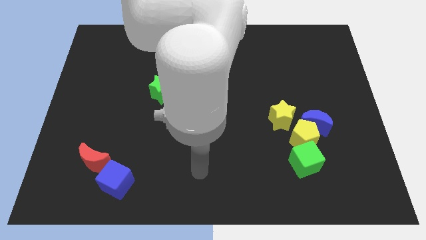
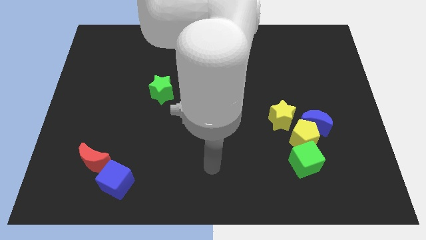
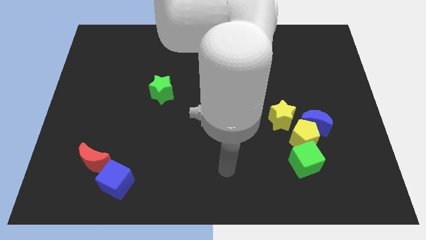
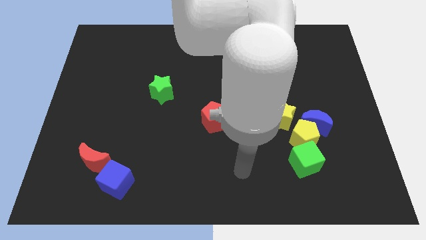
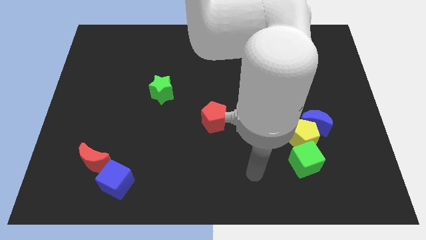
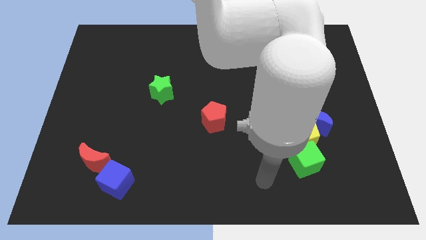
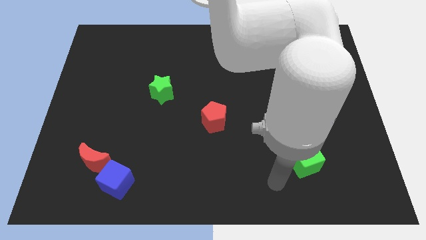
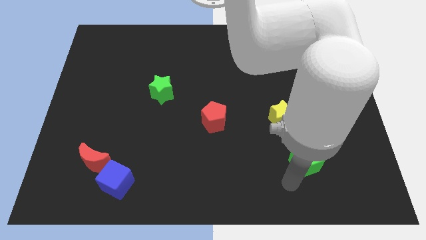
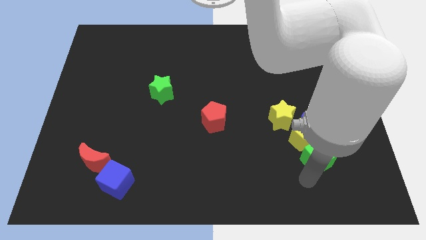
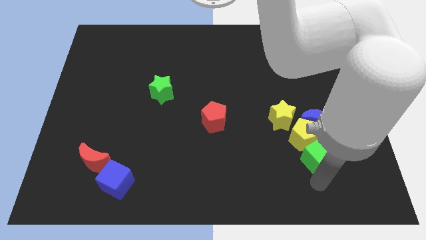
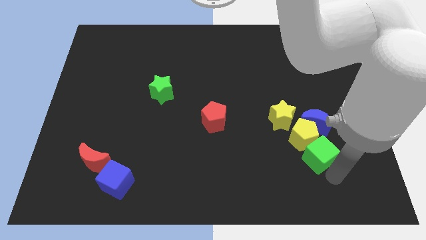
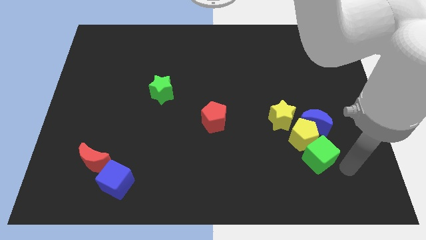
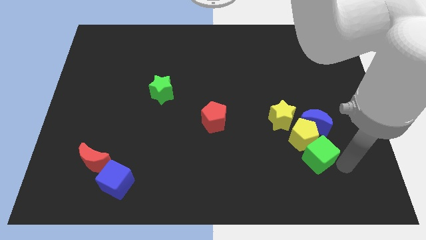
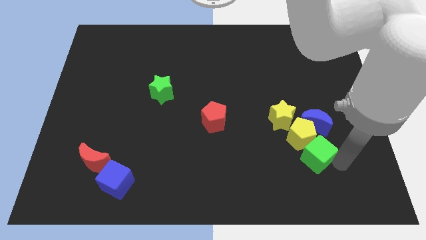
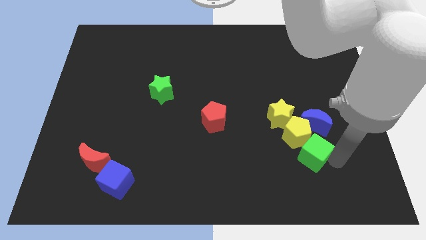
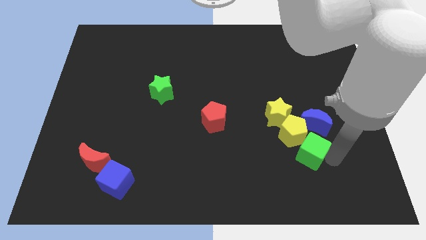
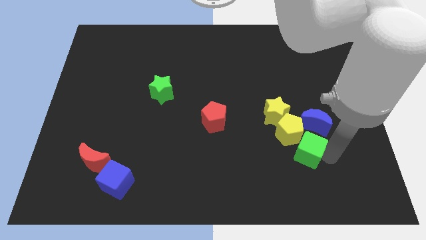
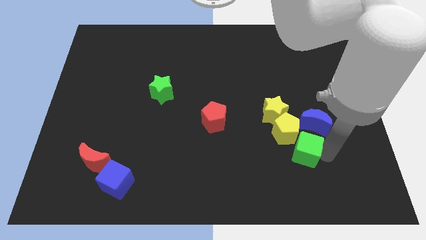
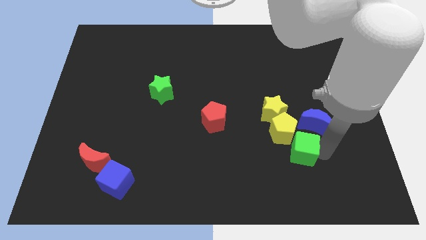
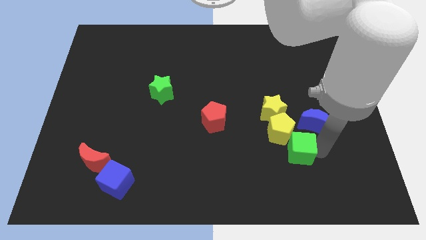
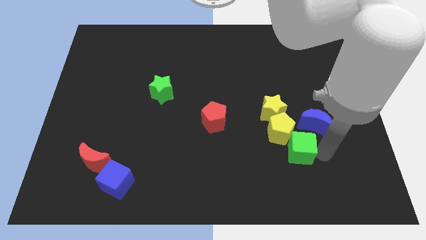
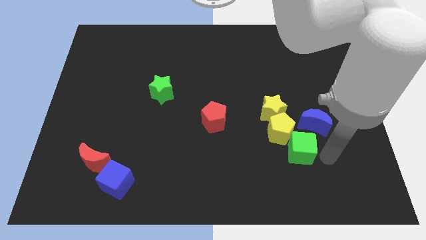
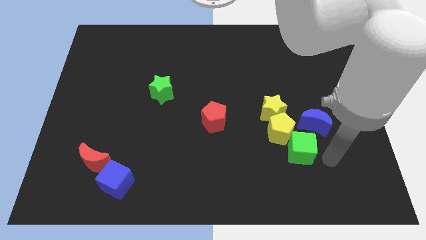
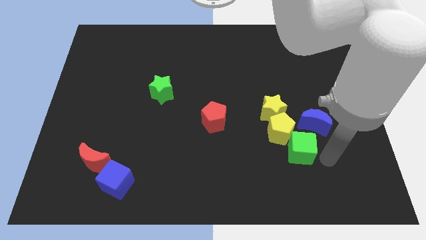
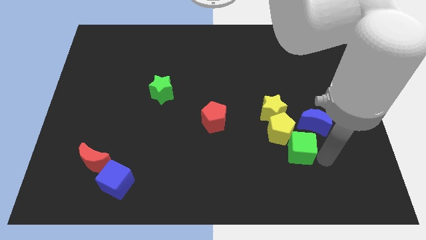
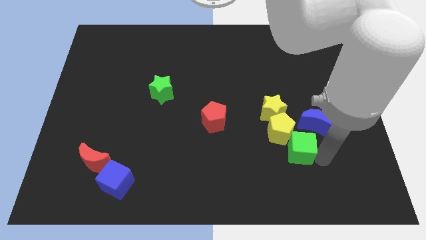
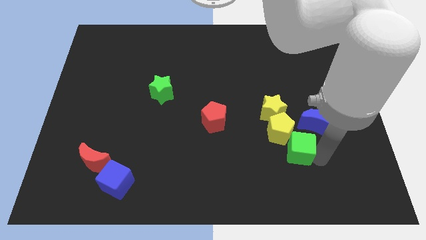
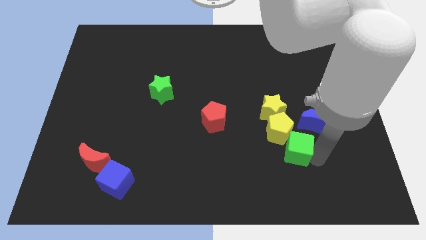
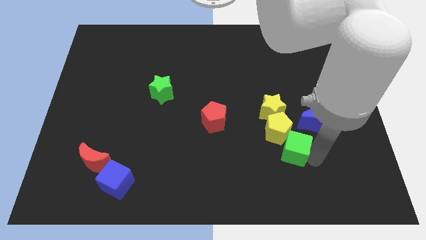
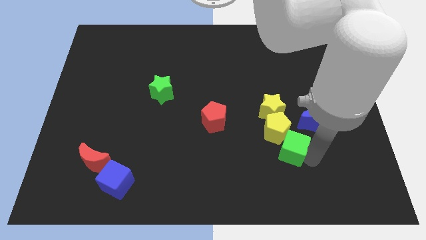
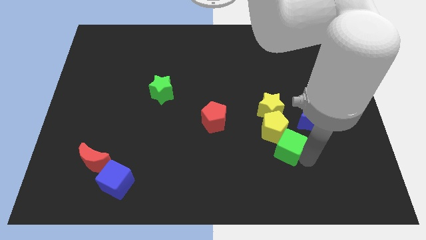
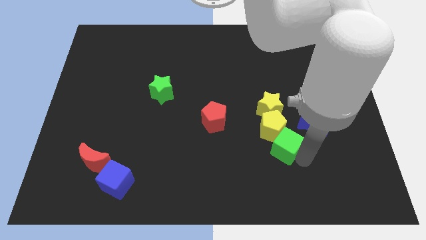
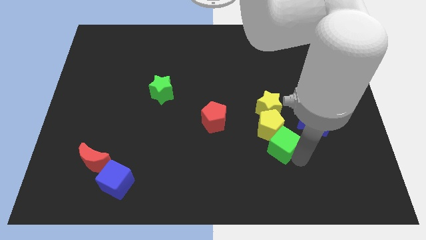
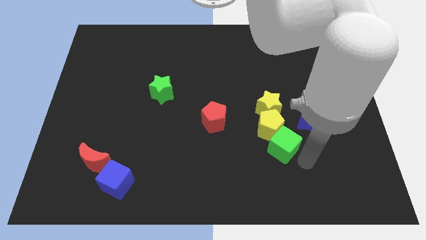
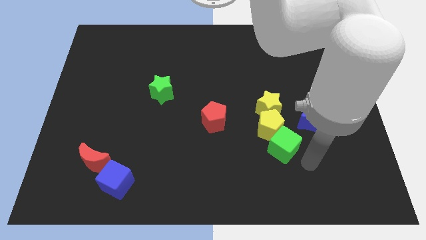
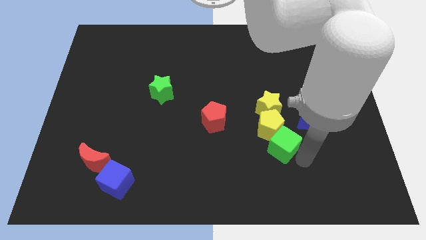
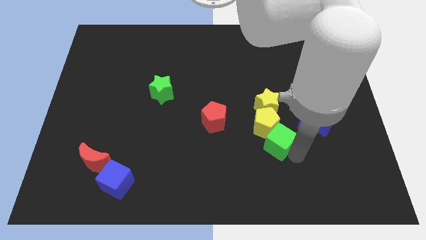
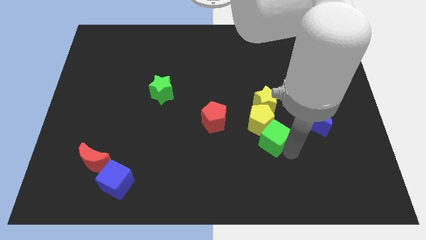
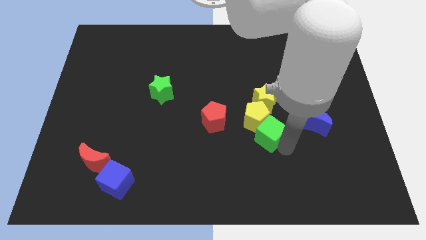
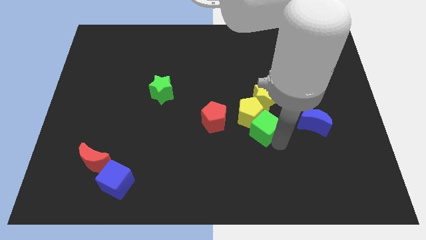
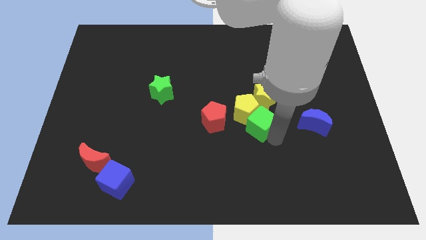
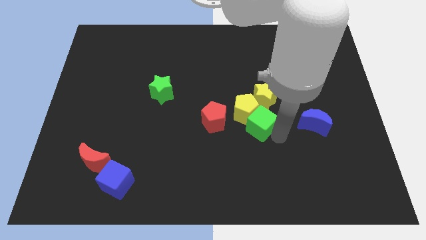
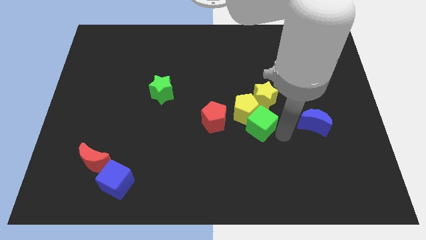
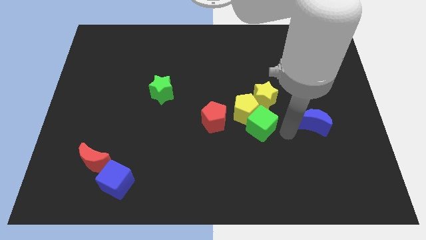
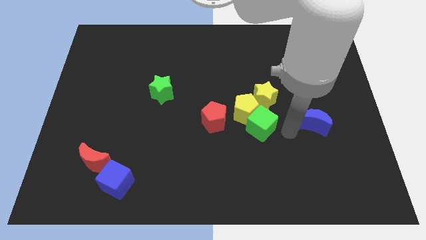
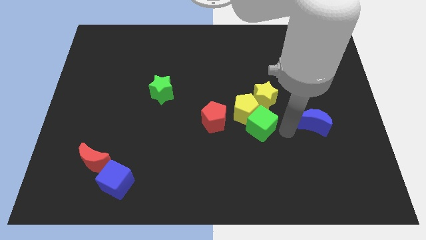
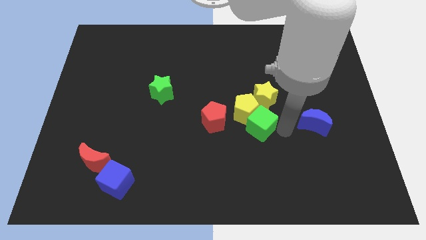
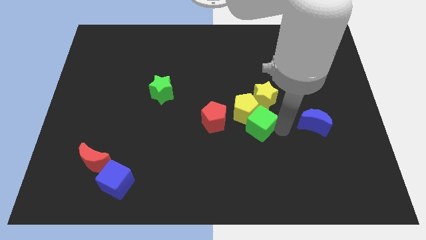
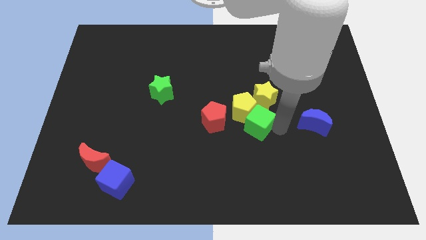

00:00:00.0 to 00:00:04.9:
move the green cube to the center

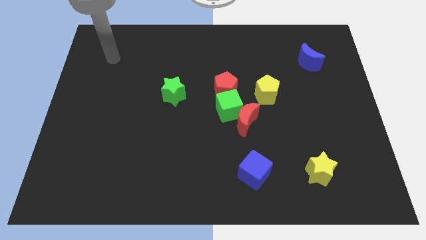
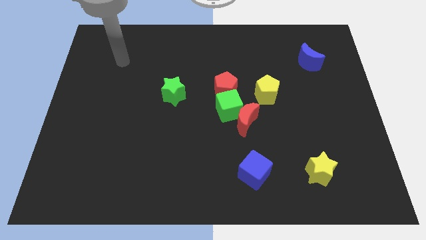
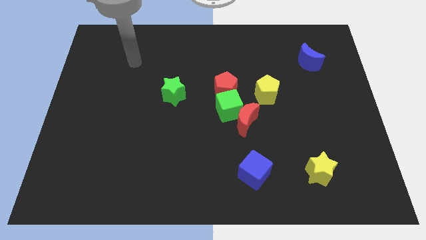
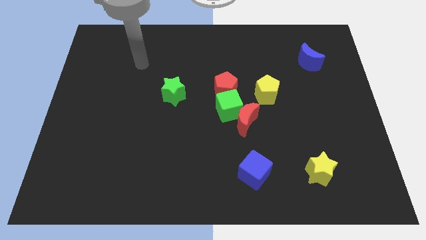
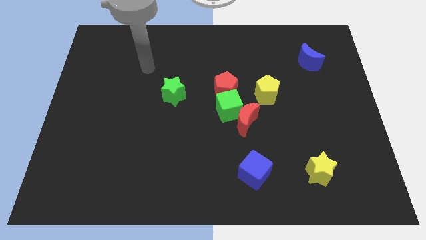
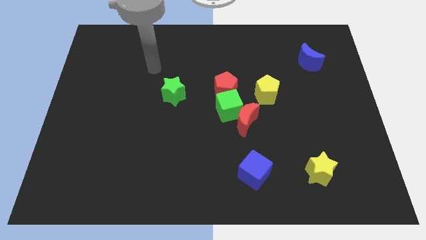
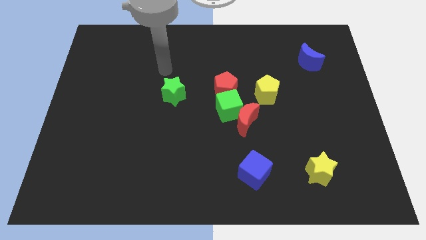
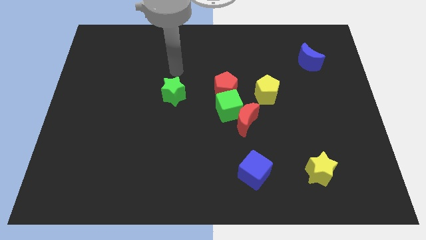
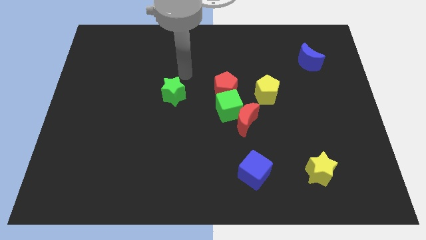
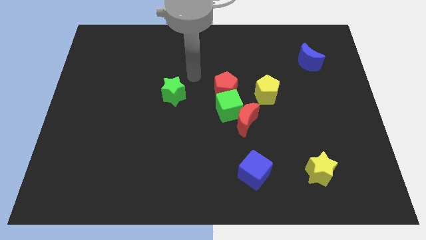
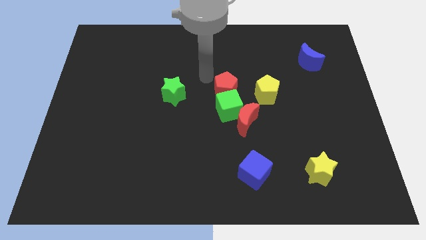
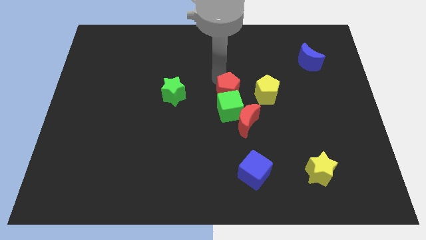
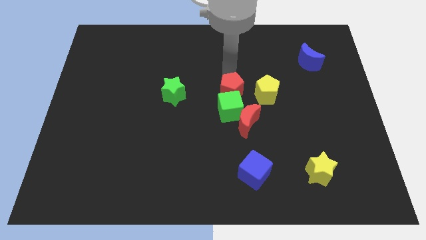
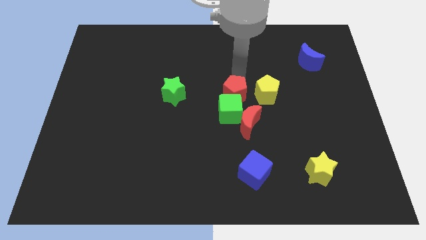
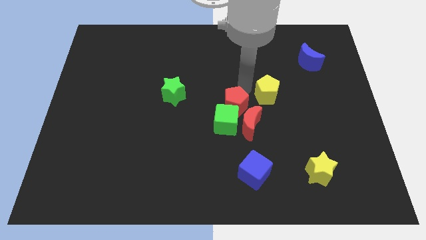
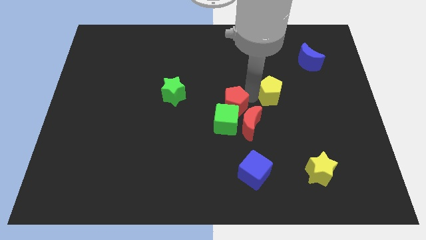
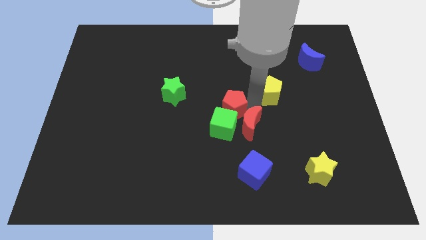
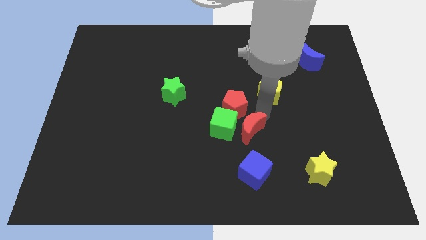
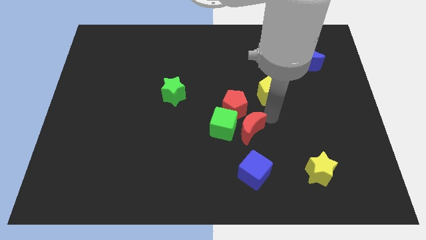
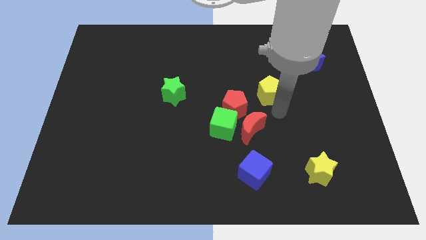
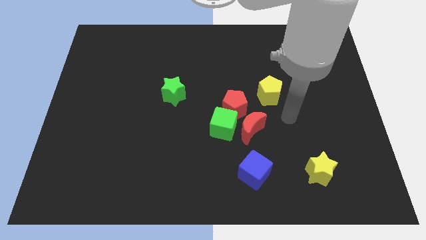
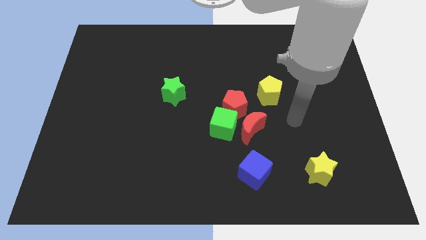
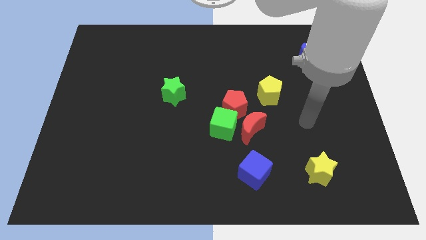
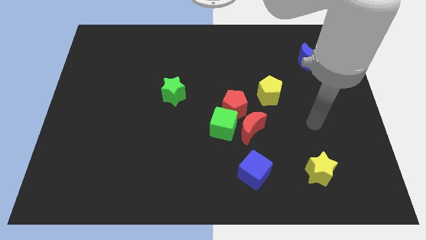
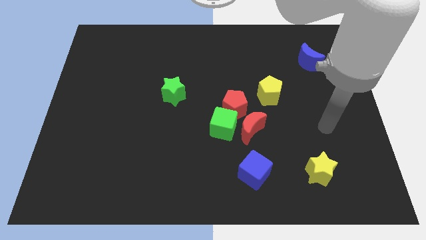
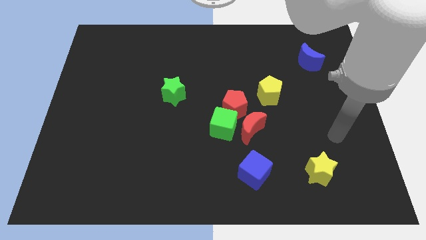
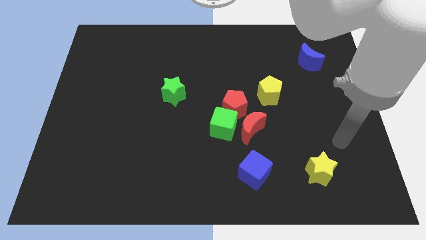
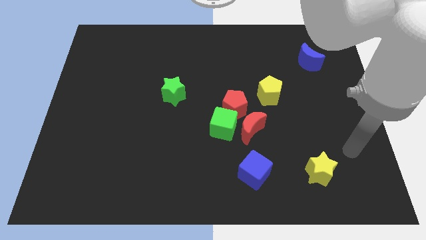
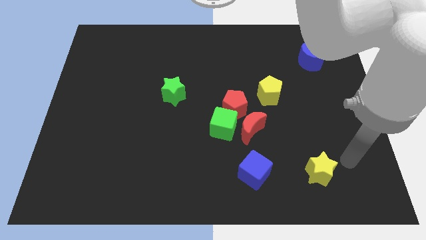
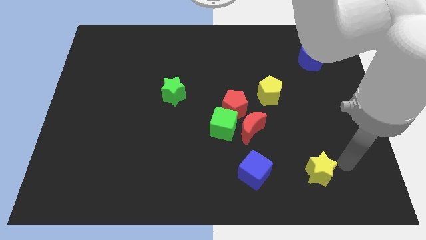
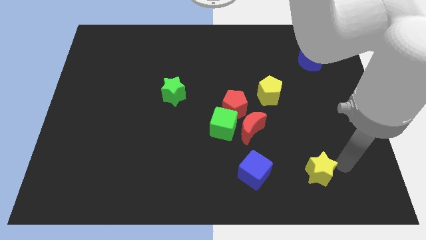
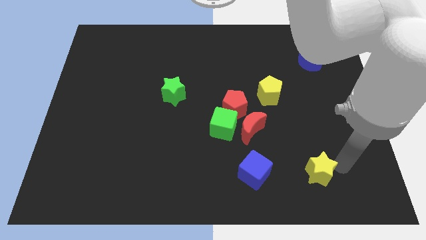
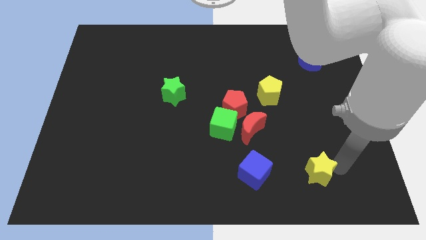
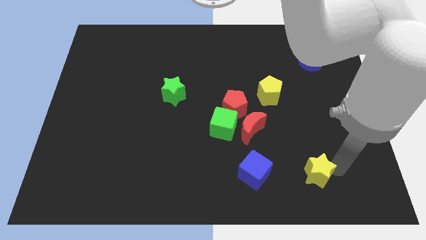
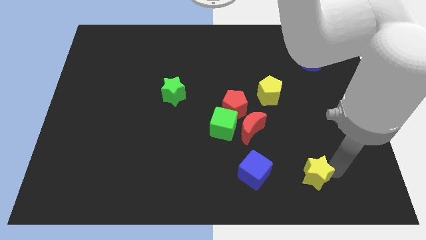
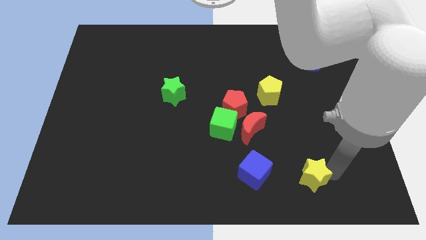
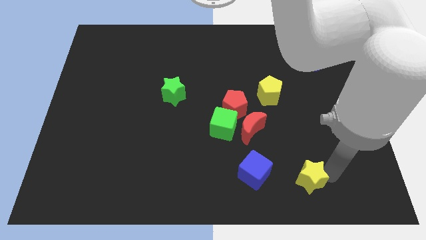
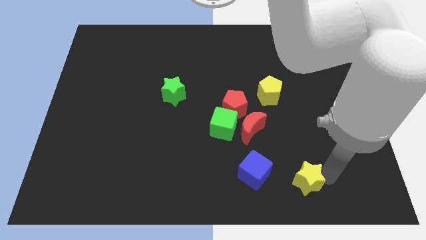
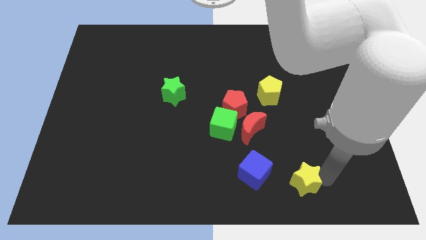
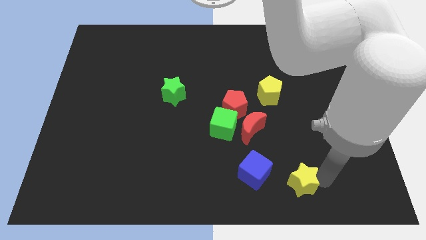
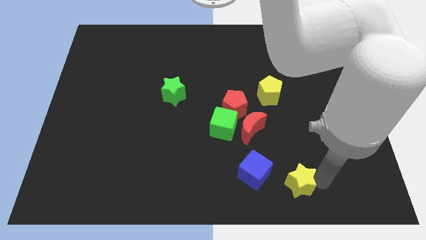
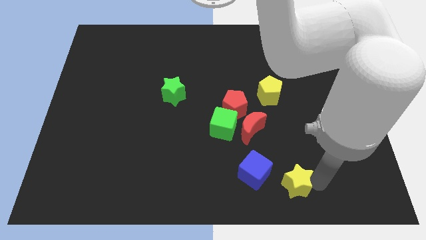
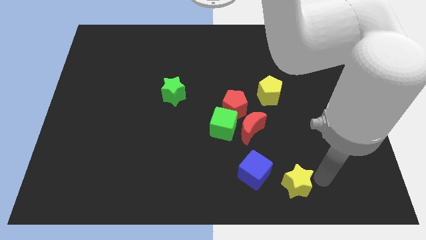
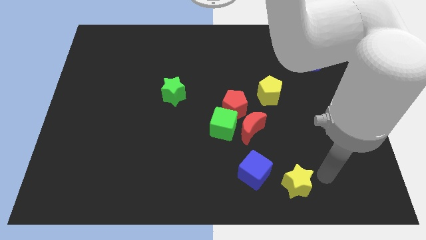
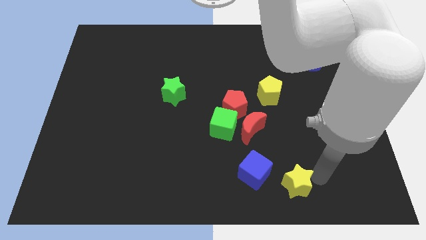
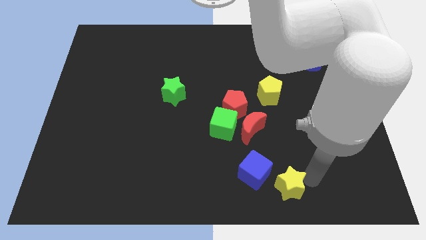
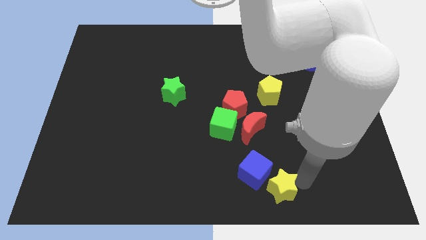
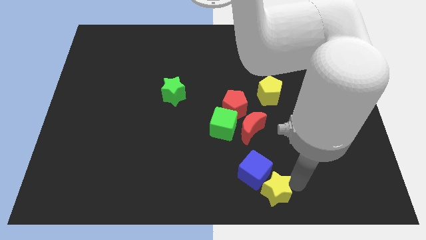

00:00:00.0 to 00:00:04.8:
slide the yellow star to the bottom
